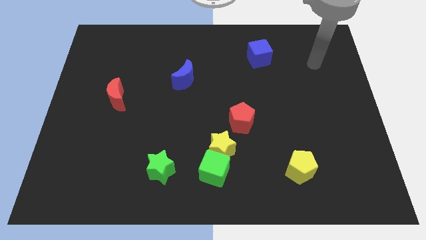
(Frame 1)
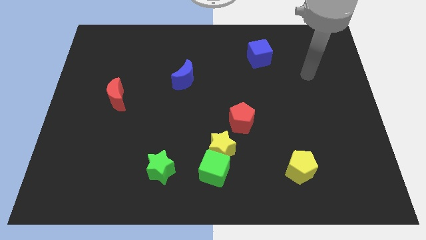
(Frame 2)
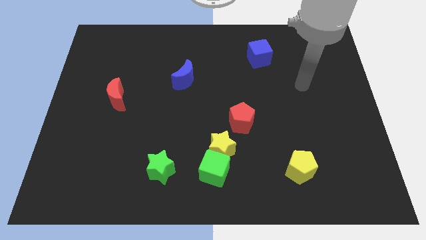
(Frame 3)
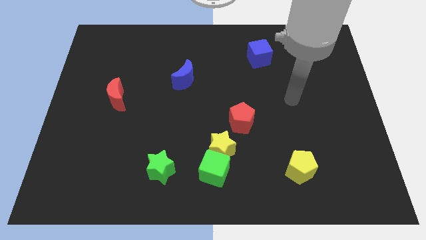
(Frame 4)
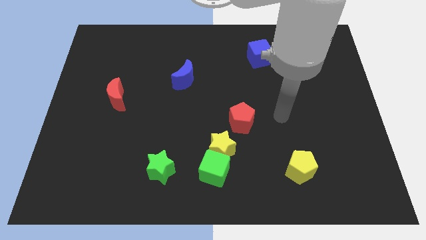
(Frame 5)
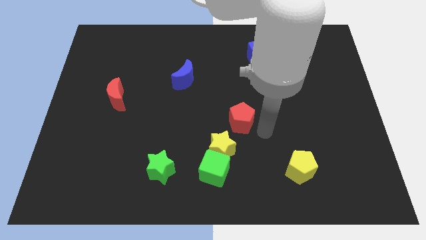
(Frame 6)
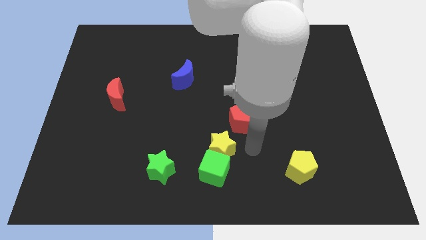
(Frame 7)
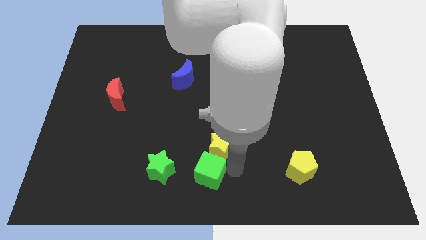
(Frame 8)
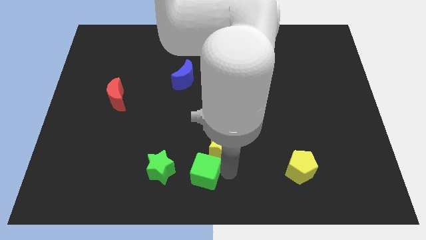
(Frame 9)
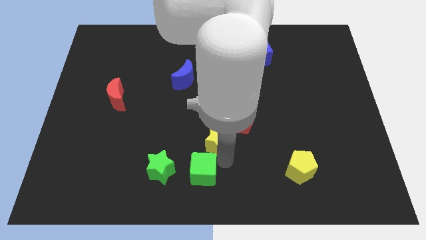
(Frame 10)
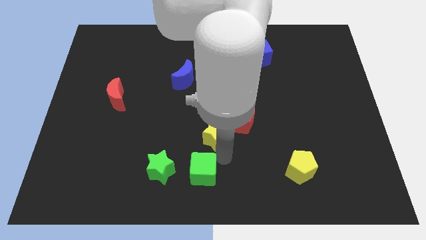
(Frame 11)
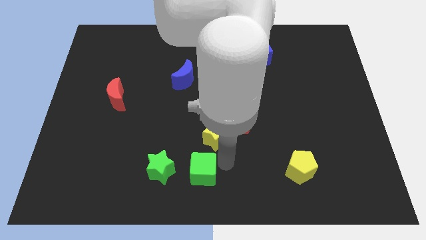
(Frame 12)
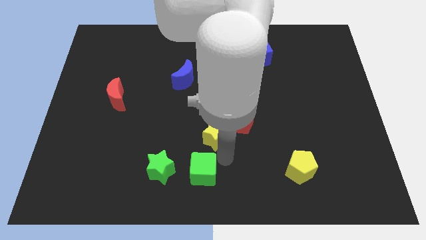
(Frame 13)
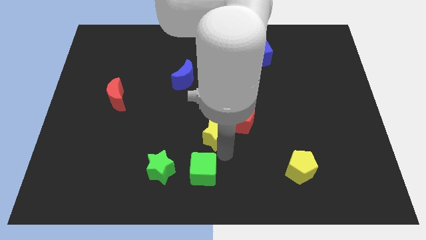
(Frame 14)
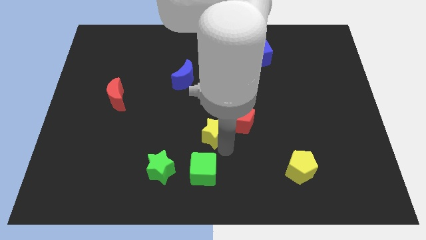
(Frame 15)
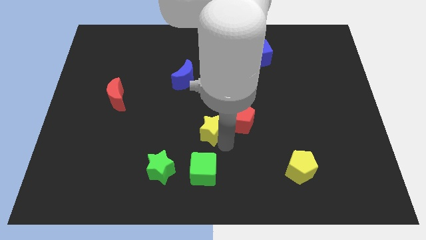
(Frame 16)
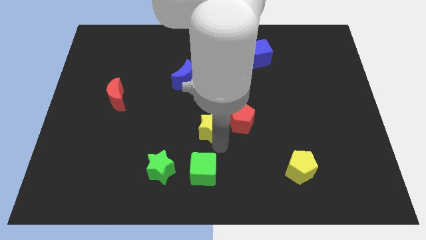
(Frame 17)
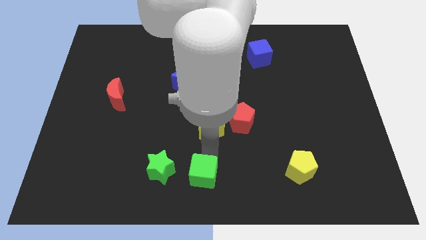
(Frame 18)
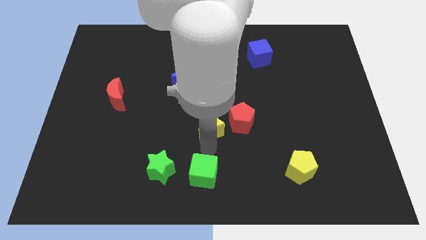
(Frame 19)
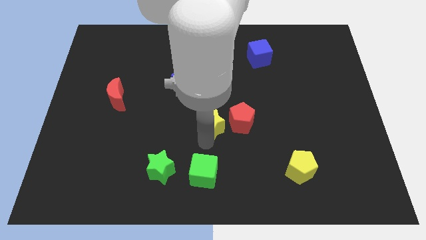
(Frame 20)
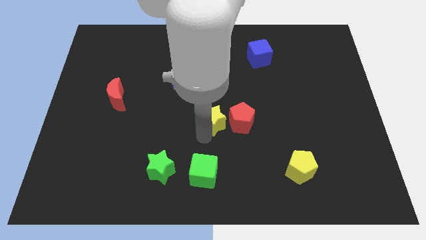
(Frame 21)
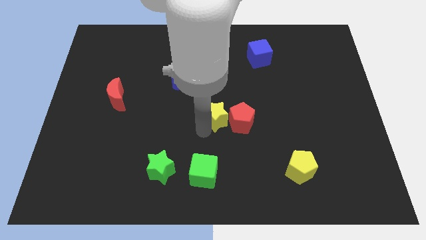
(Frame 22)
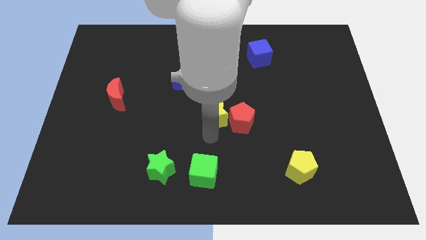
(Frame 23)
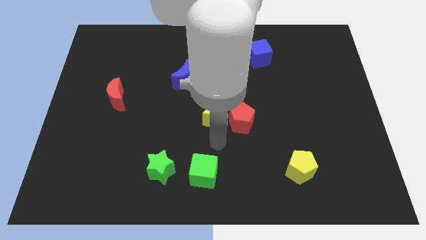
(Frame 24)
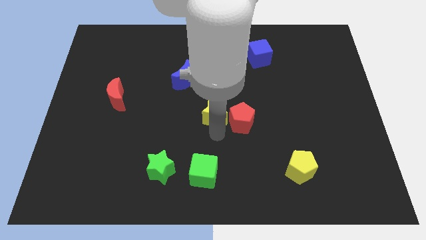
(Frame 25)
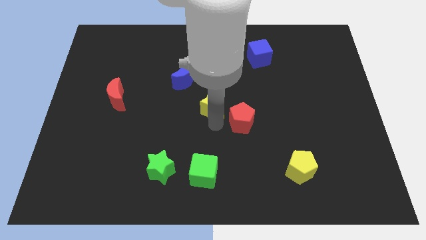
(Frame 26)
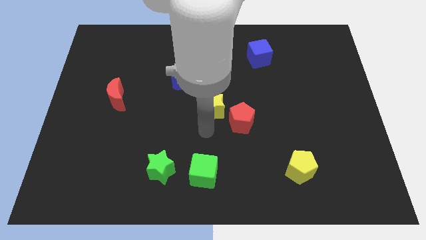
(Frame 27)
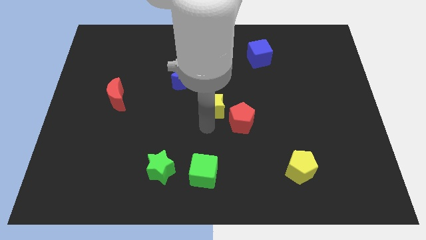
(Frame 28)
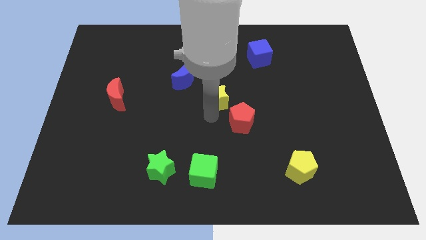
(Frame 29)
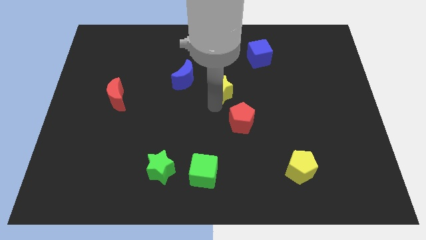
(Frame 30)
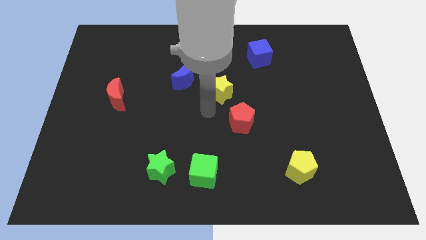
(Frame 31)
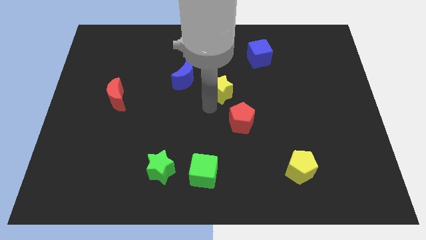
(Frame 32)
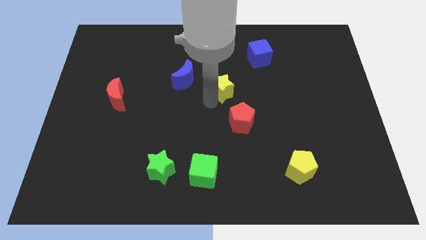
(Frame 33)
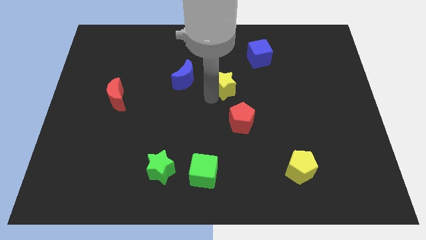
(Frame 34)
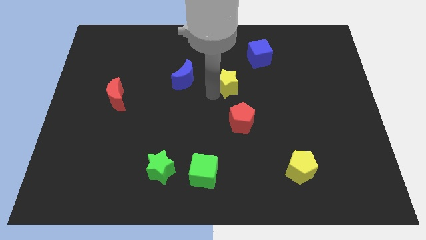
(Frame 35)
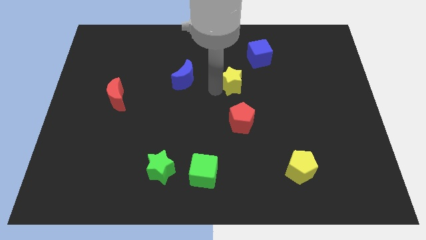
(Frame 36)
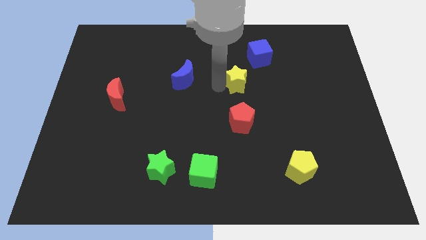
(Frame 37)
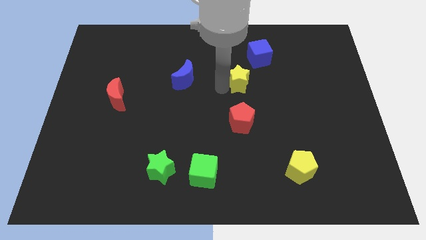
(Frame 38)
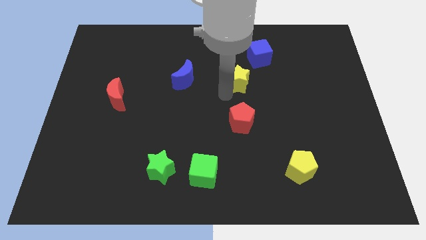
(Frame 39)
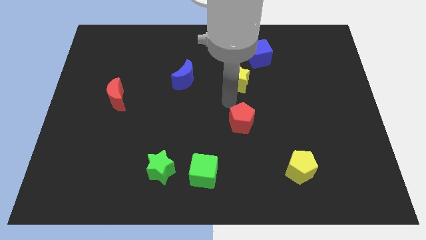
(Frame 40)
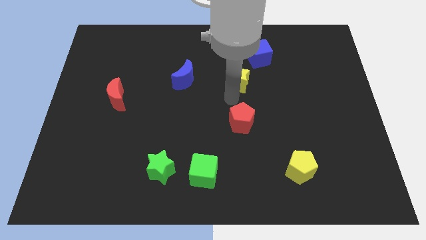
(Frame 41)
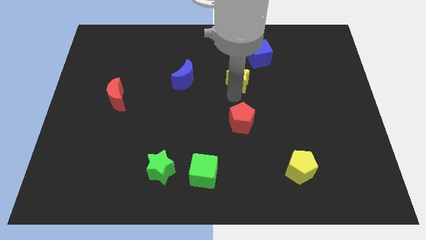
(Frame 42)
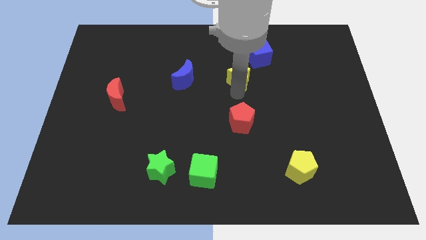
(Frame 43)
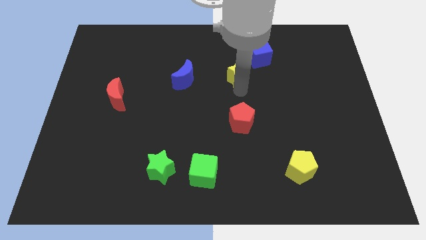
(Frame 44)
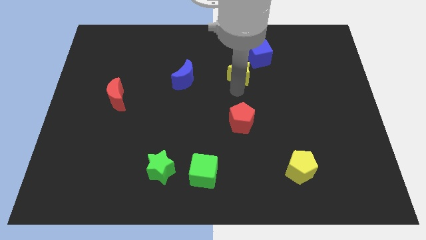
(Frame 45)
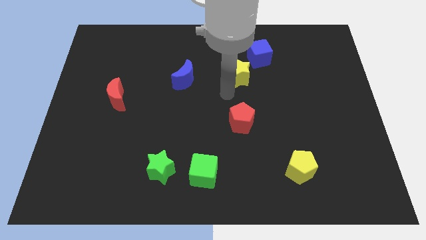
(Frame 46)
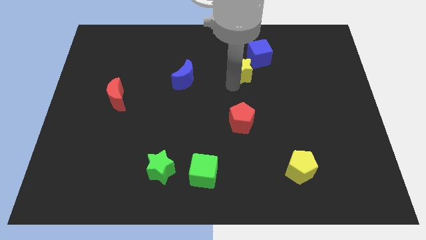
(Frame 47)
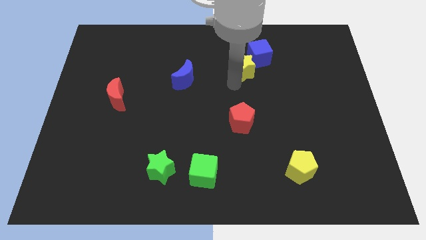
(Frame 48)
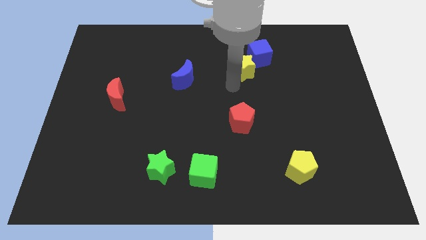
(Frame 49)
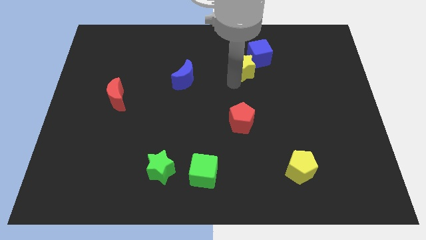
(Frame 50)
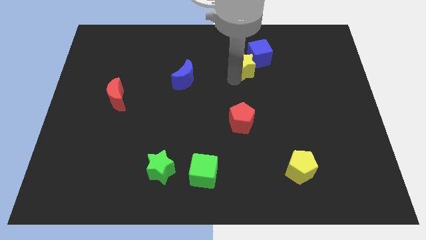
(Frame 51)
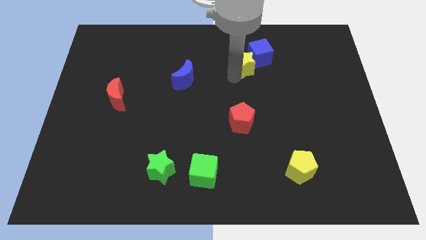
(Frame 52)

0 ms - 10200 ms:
move the yellow star to the blue cube

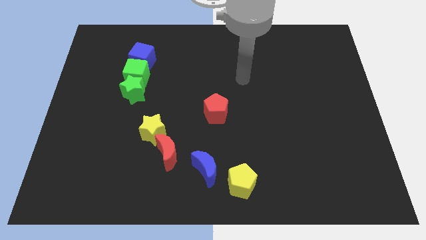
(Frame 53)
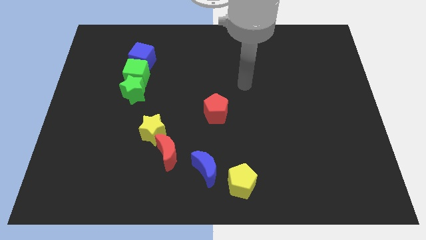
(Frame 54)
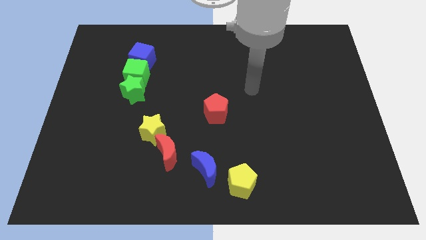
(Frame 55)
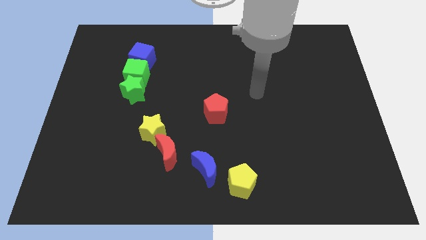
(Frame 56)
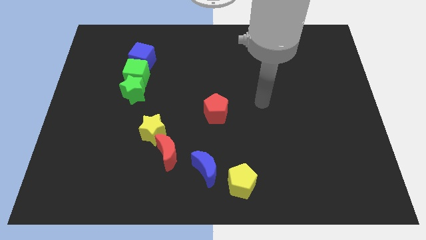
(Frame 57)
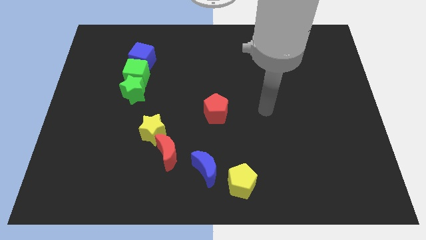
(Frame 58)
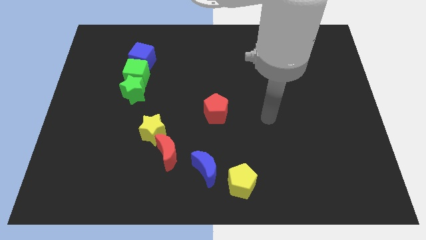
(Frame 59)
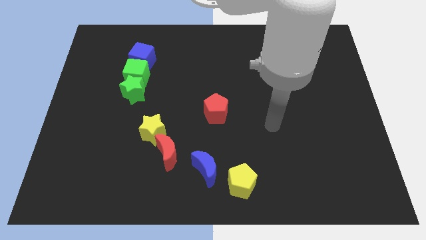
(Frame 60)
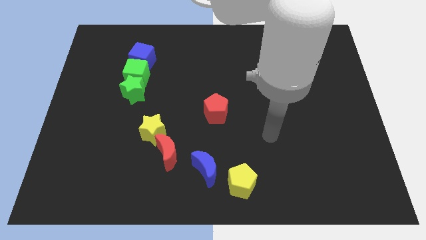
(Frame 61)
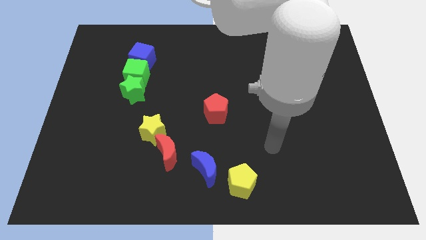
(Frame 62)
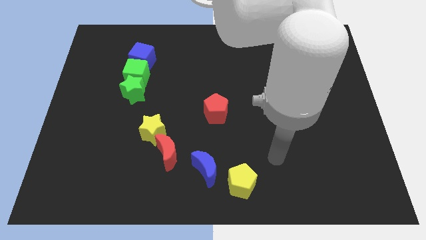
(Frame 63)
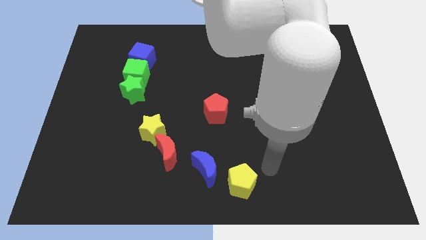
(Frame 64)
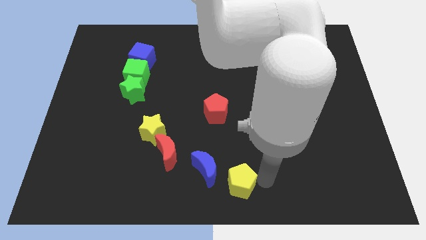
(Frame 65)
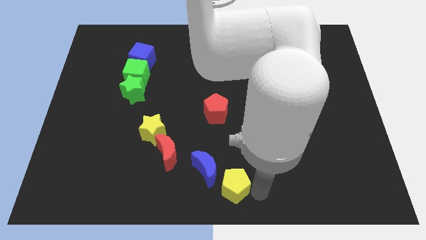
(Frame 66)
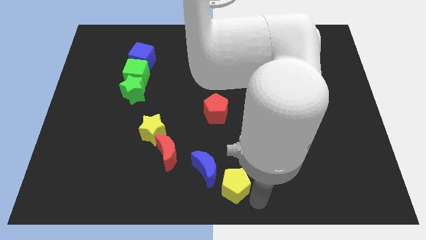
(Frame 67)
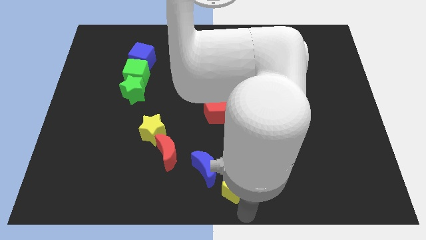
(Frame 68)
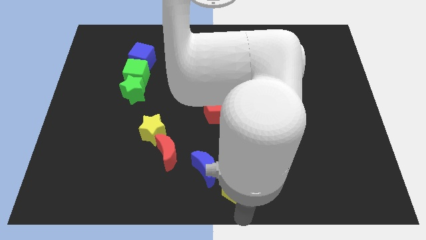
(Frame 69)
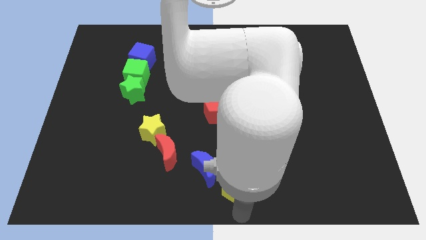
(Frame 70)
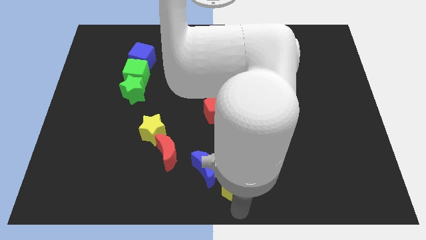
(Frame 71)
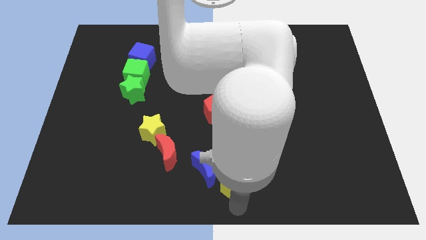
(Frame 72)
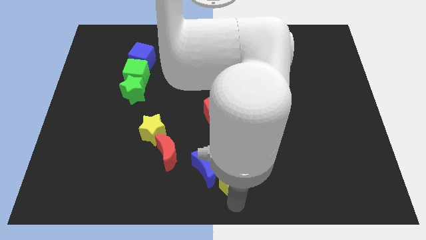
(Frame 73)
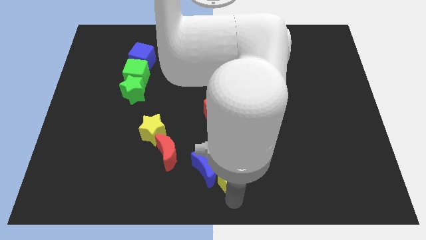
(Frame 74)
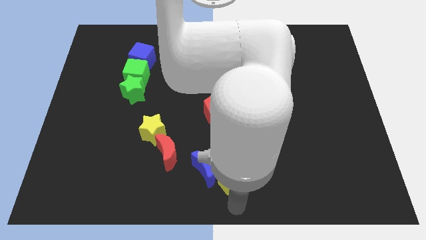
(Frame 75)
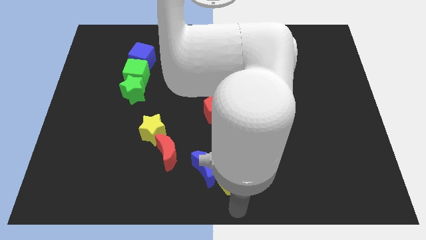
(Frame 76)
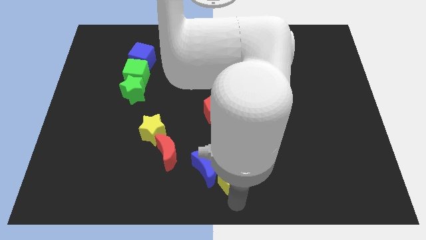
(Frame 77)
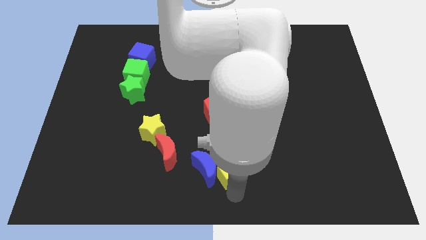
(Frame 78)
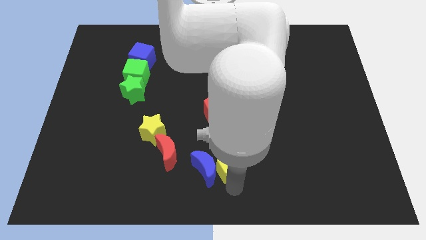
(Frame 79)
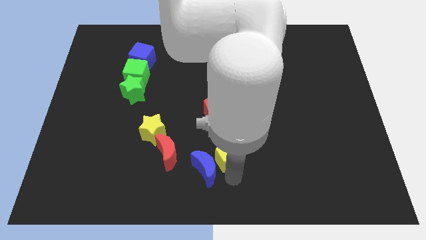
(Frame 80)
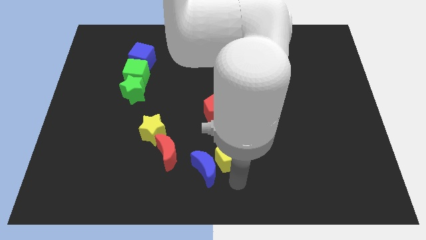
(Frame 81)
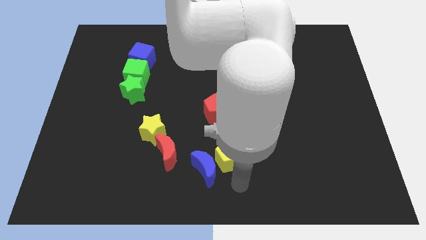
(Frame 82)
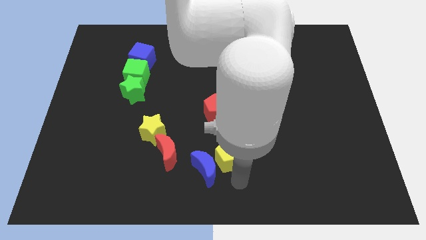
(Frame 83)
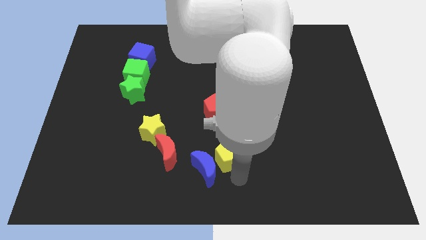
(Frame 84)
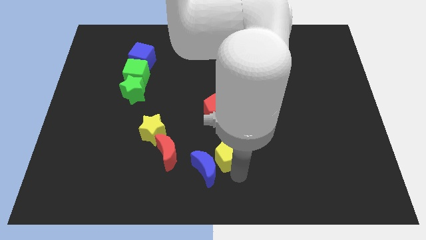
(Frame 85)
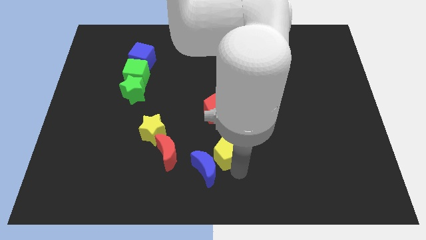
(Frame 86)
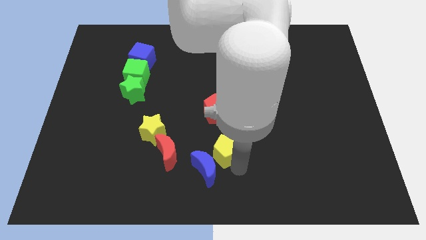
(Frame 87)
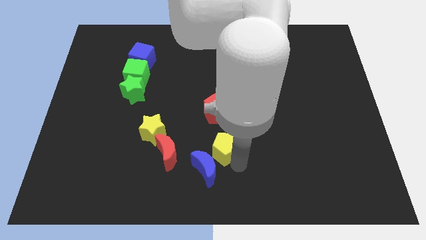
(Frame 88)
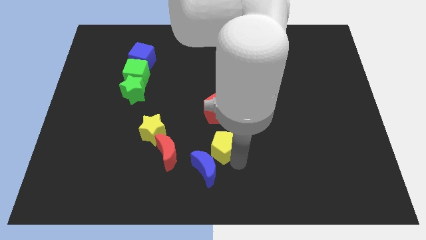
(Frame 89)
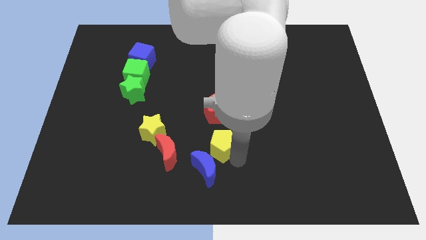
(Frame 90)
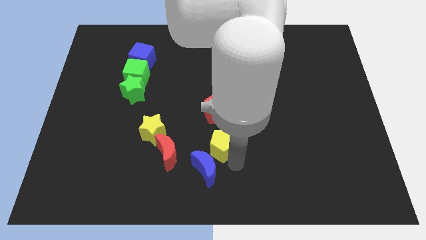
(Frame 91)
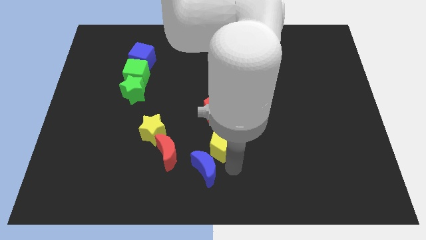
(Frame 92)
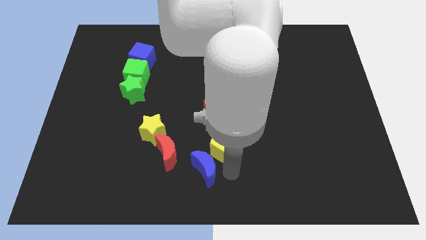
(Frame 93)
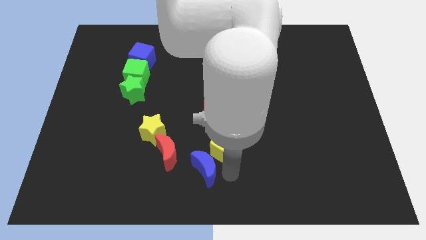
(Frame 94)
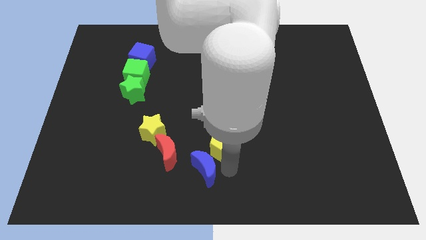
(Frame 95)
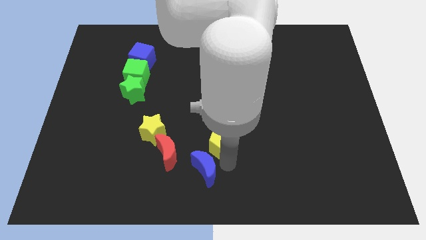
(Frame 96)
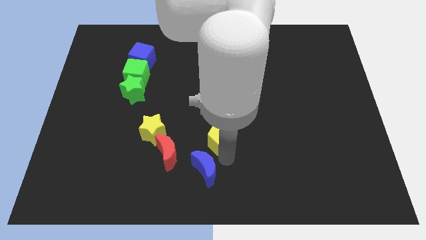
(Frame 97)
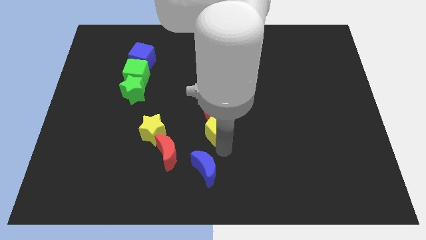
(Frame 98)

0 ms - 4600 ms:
move the yellow pentagon close to the red pentagon
